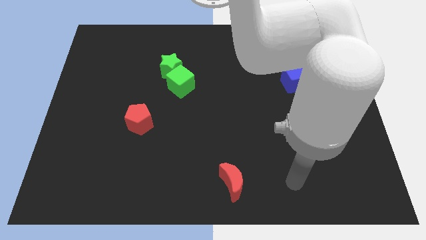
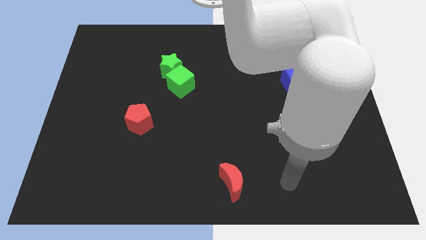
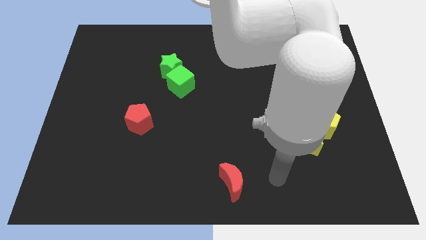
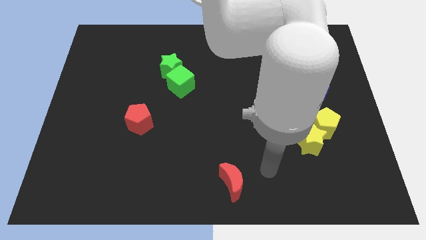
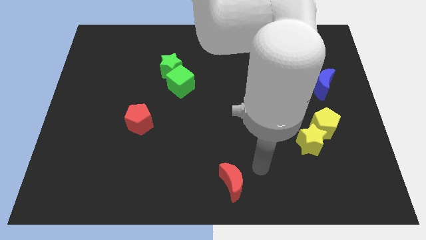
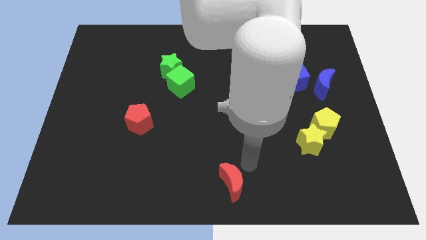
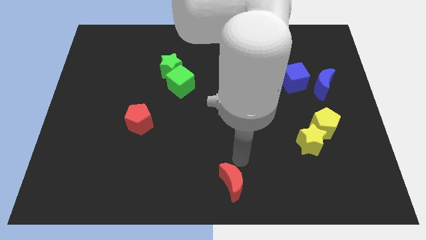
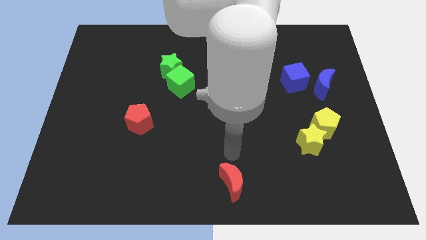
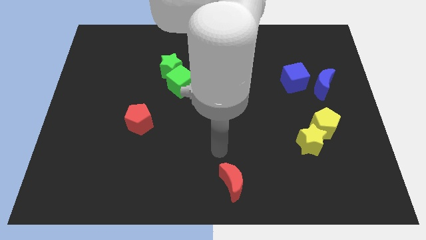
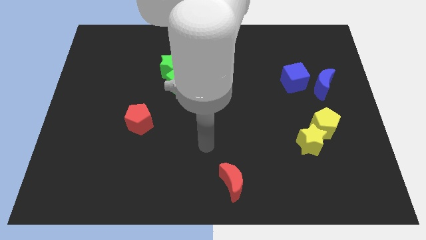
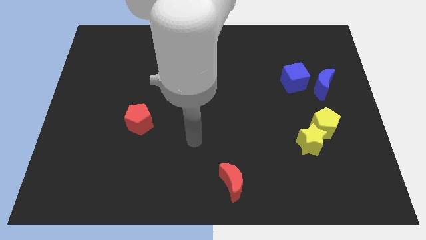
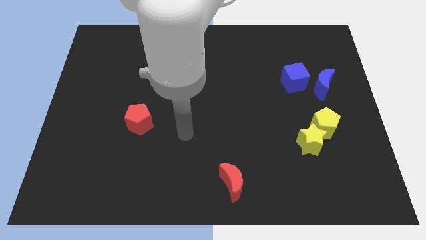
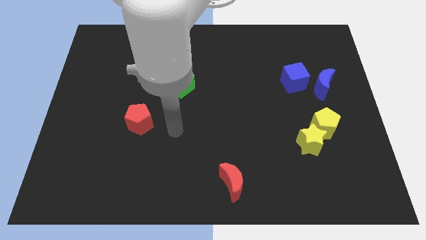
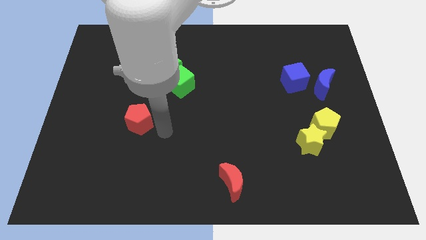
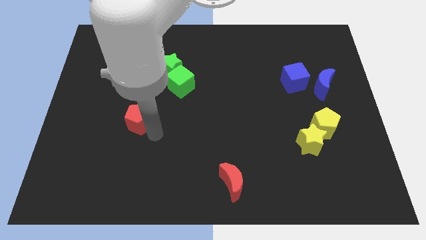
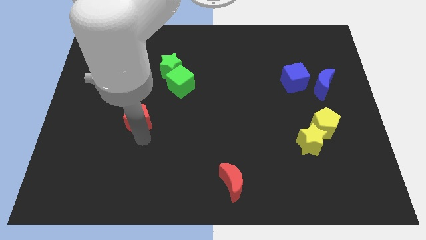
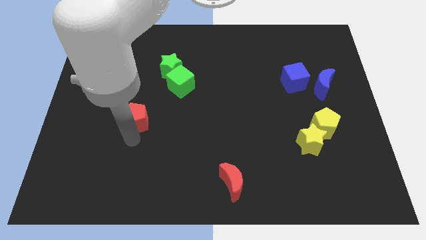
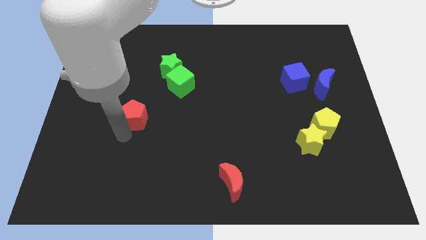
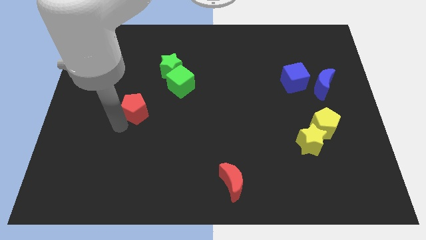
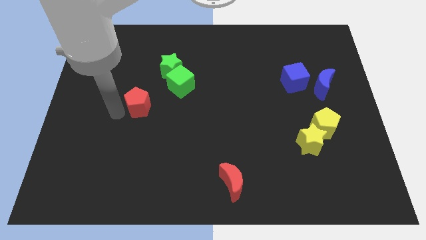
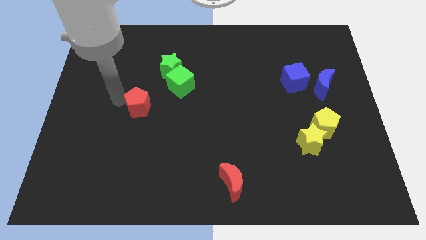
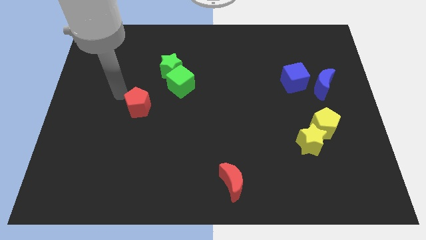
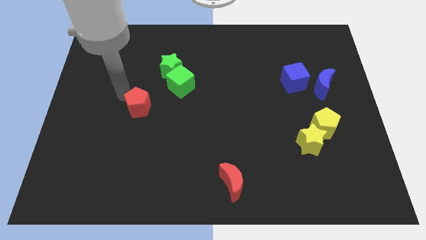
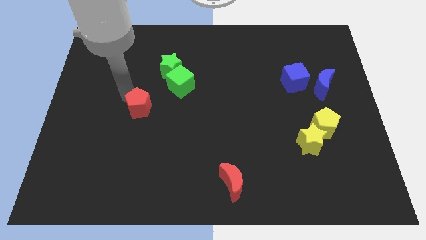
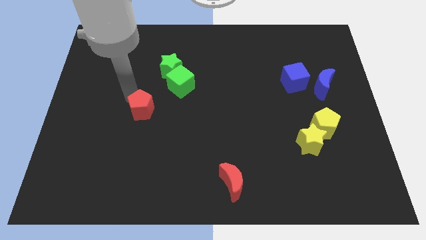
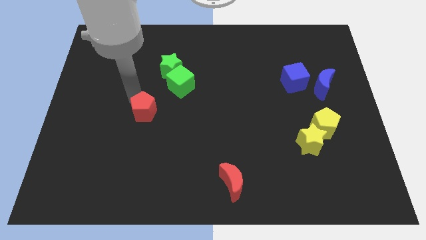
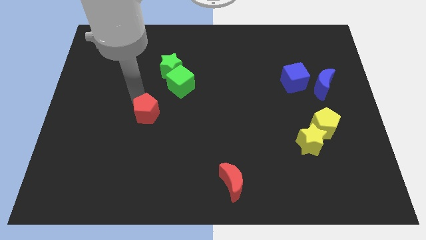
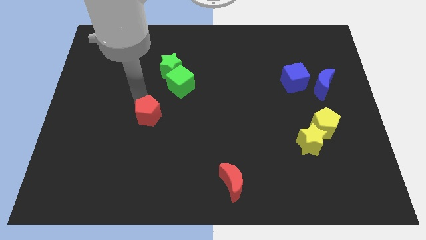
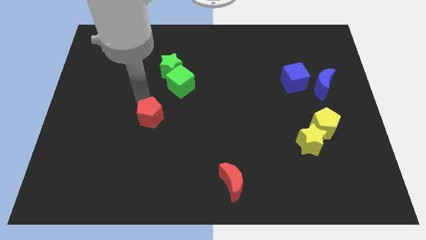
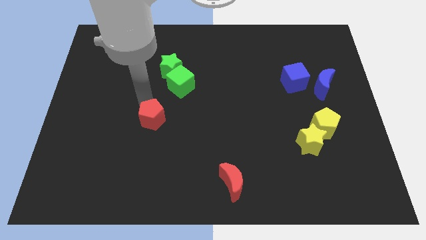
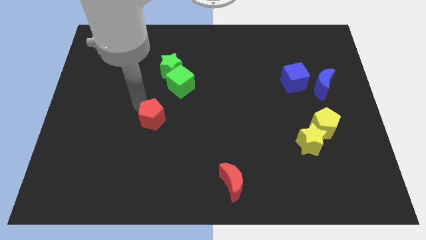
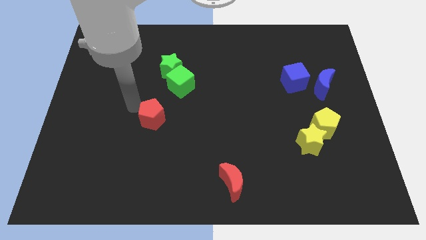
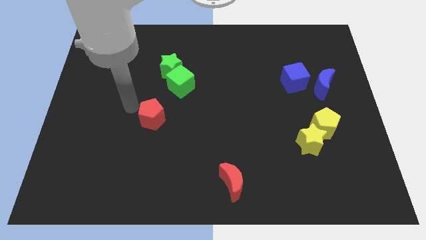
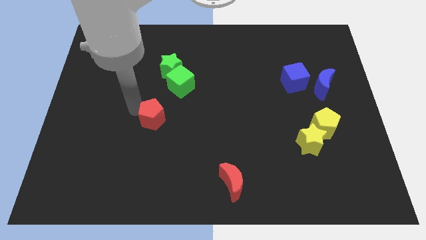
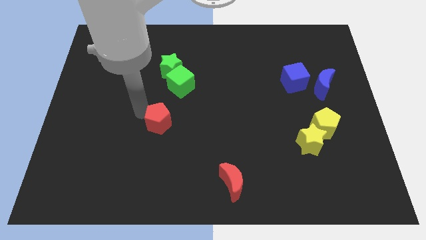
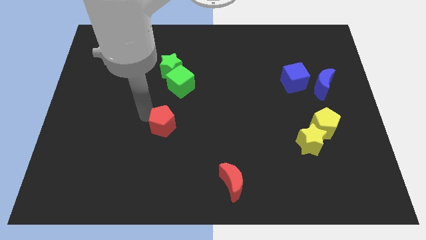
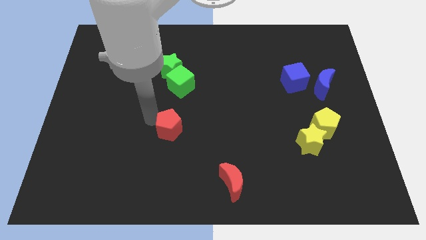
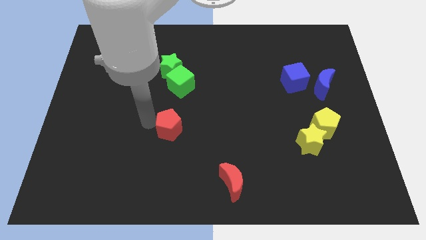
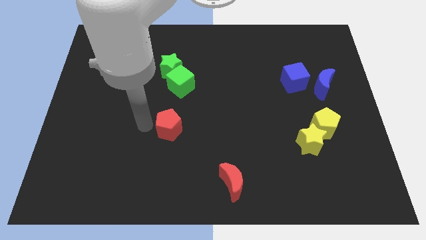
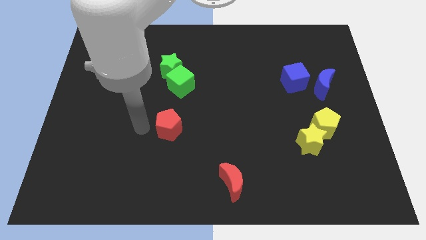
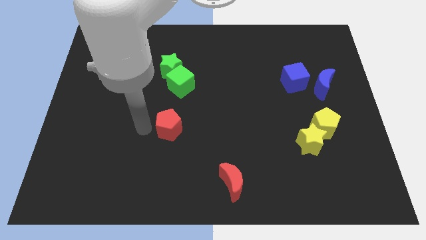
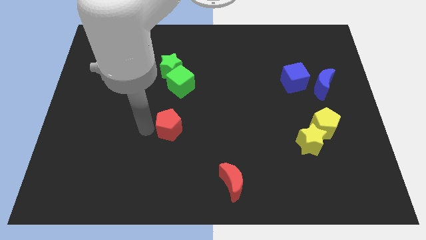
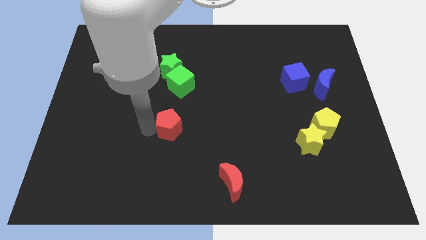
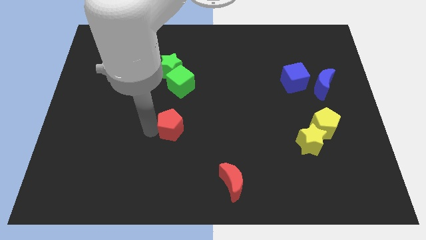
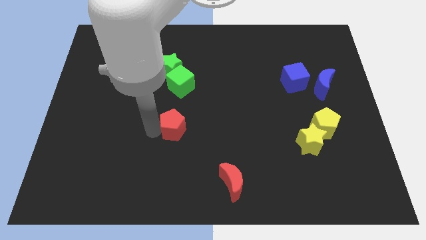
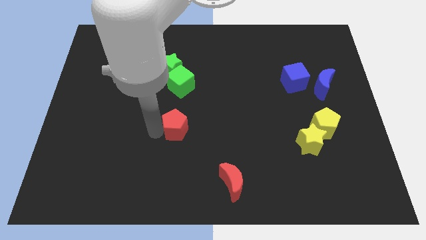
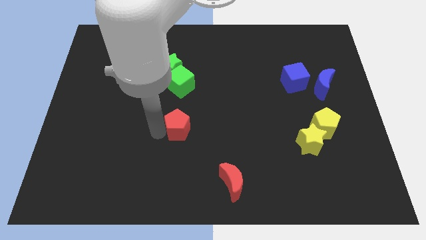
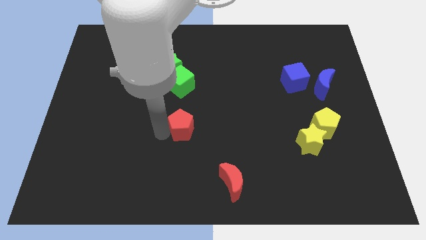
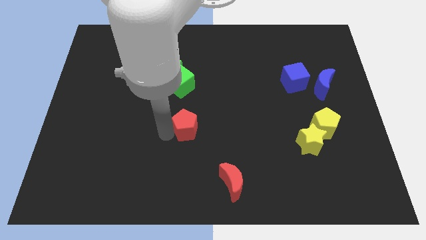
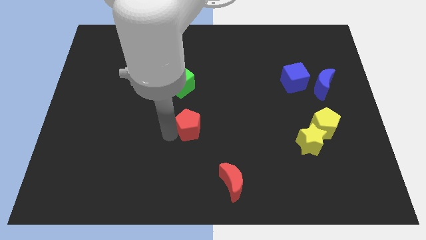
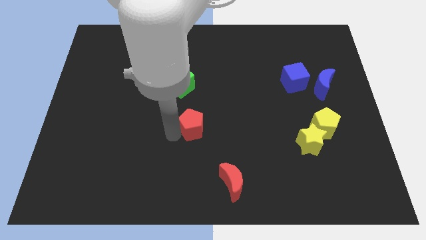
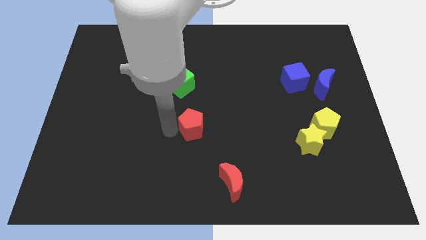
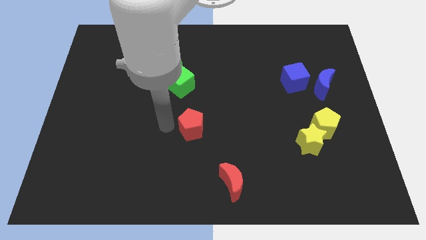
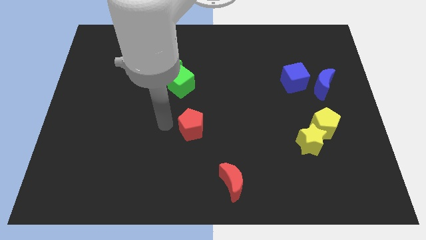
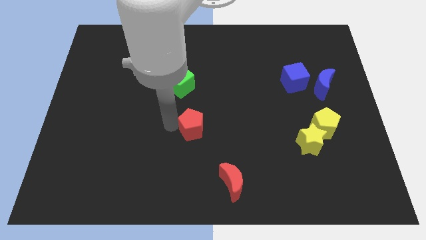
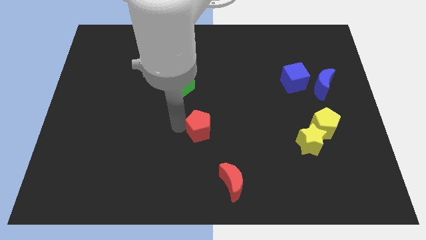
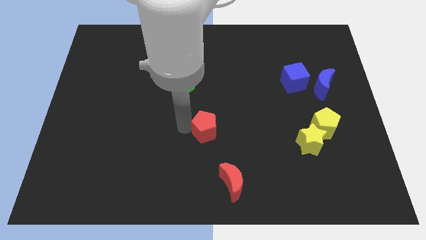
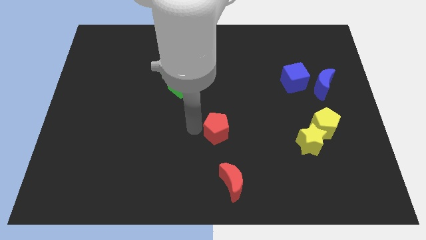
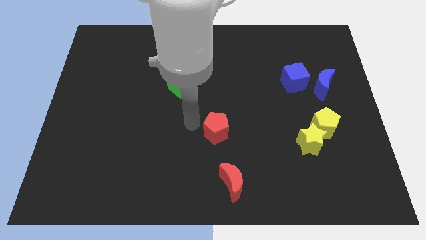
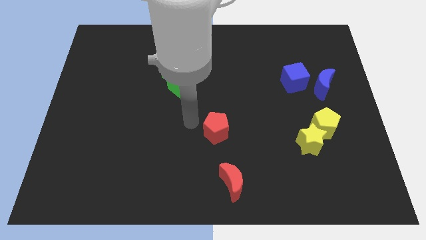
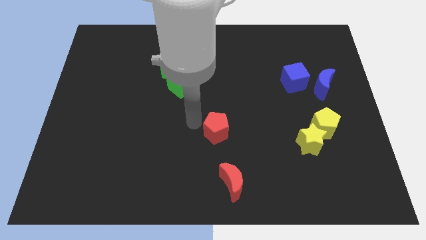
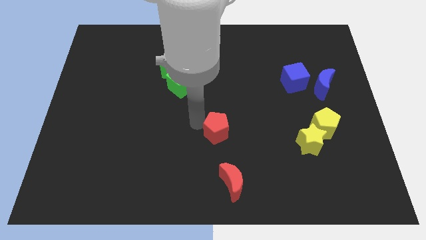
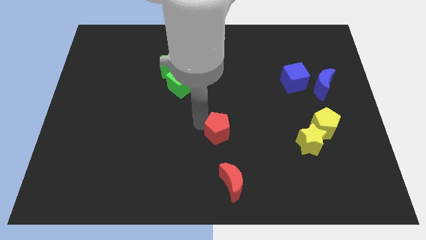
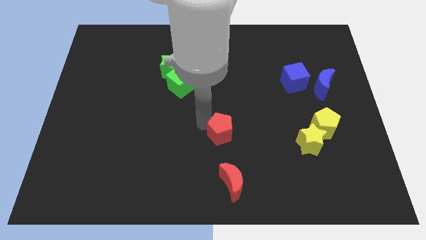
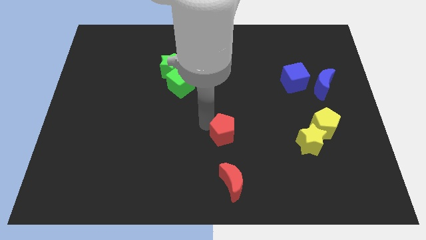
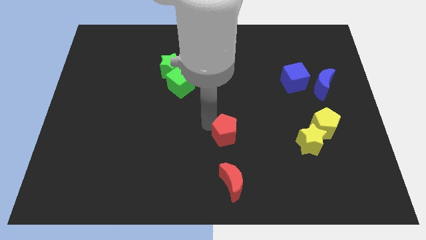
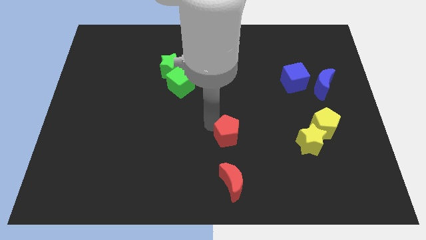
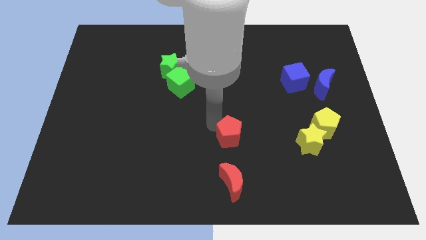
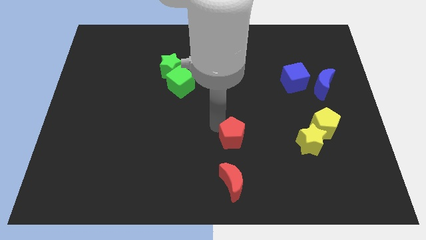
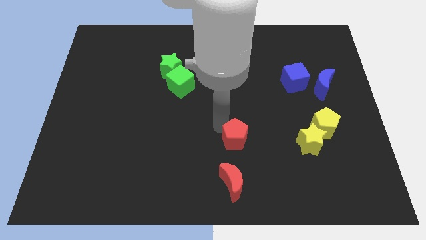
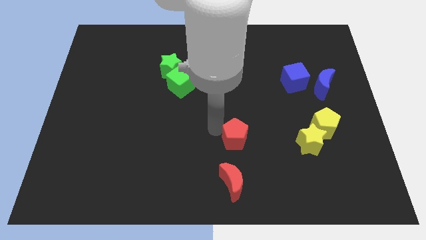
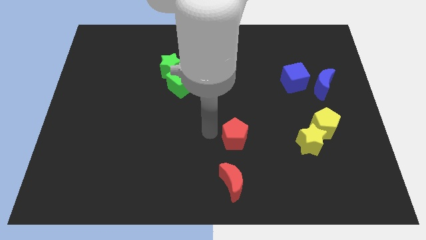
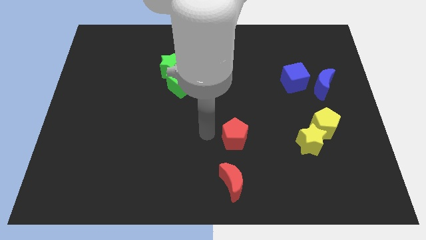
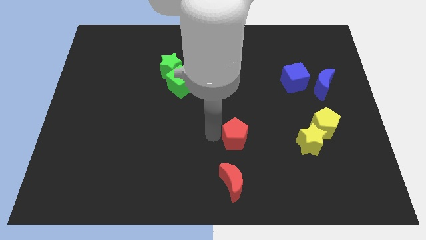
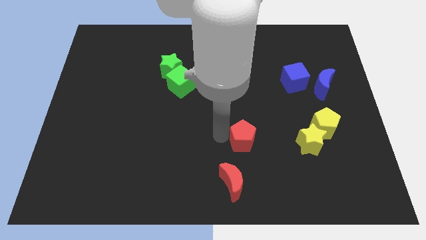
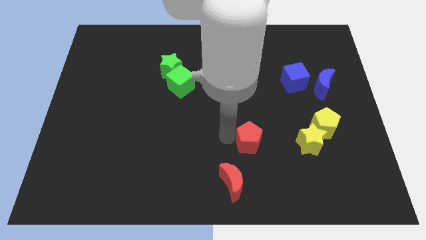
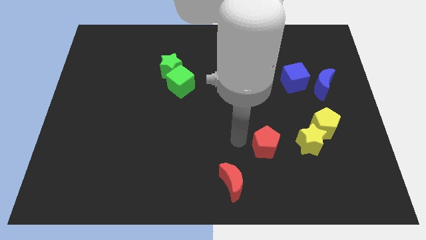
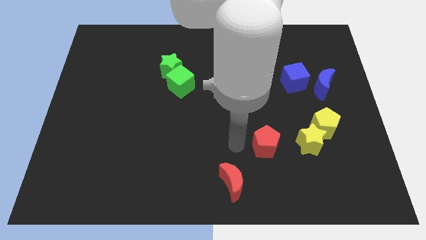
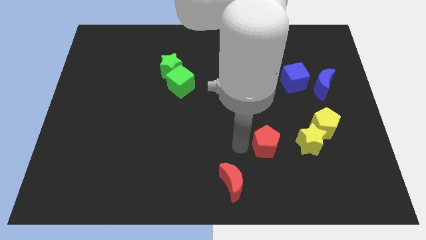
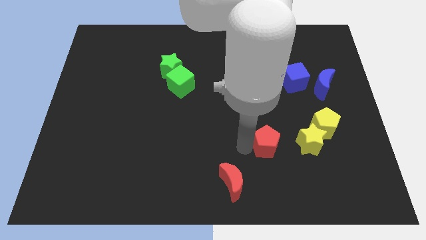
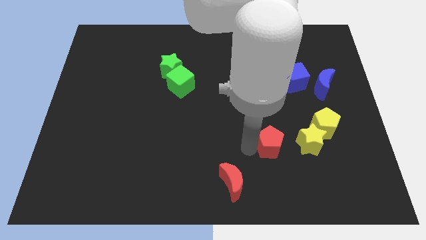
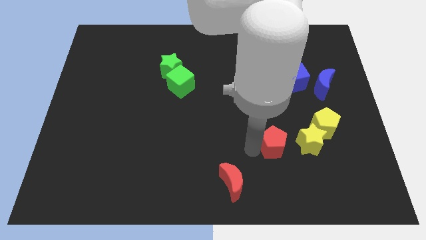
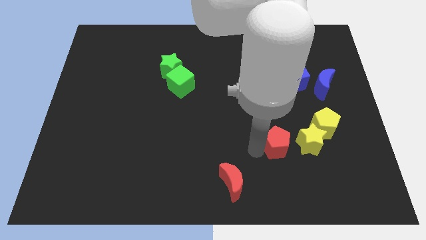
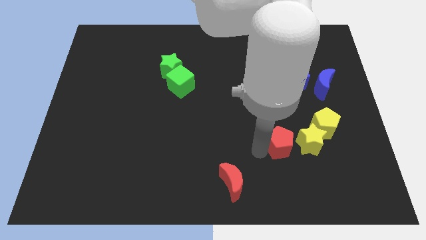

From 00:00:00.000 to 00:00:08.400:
put the red pentagon diagonally down and to the left of the yellow pentagon
